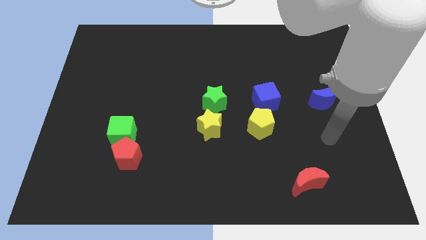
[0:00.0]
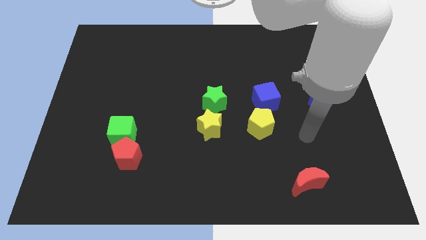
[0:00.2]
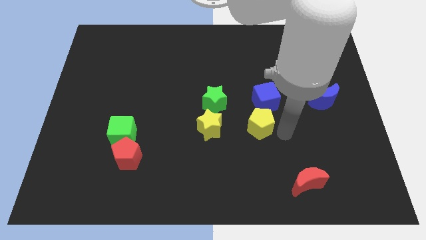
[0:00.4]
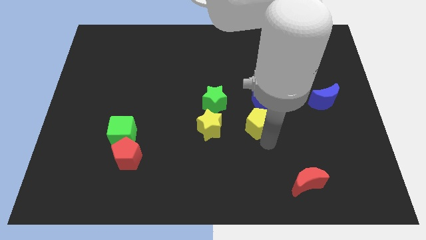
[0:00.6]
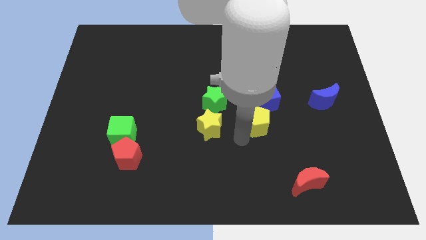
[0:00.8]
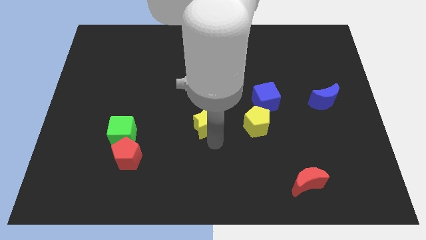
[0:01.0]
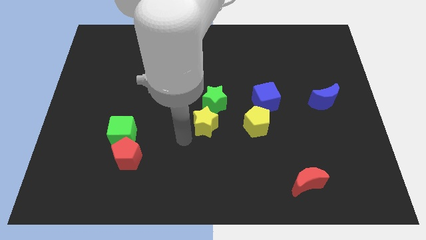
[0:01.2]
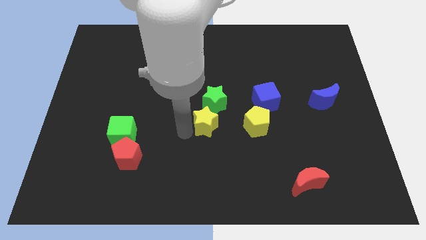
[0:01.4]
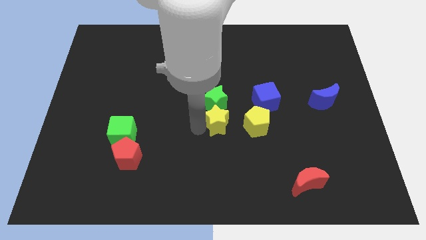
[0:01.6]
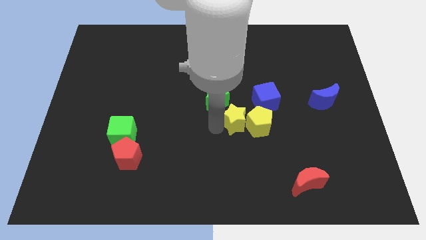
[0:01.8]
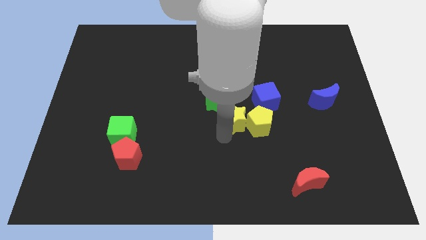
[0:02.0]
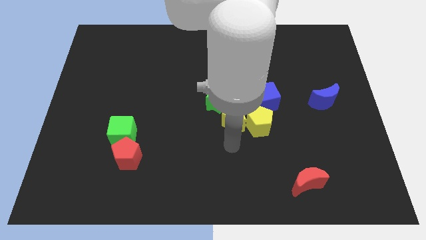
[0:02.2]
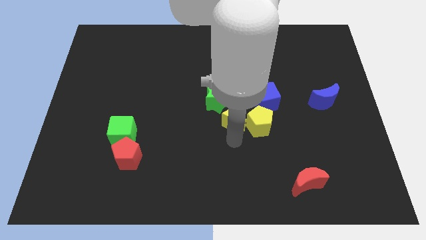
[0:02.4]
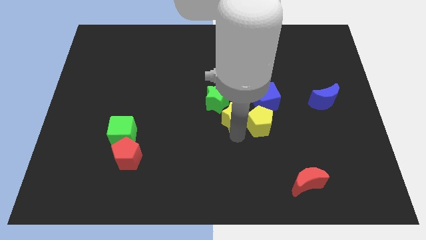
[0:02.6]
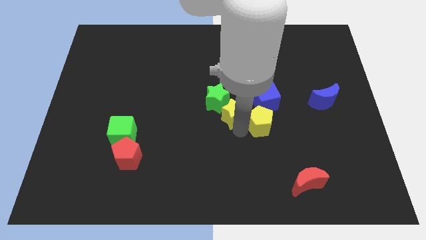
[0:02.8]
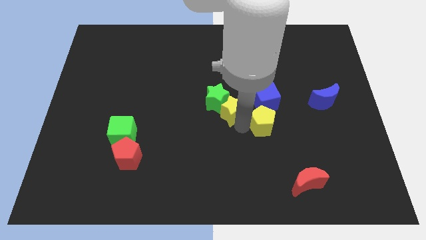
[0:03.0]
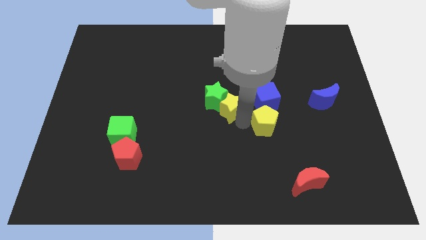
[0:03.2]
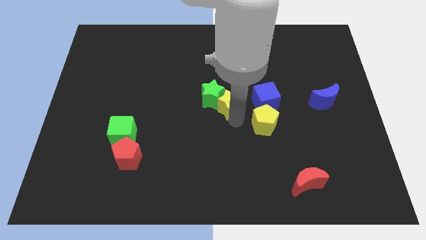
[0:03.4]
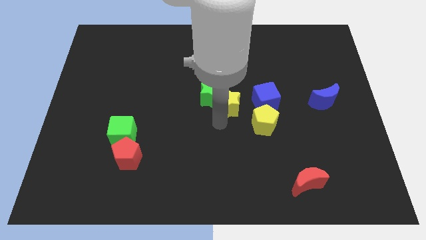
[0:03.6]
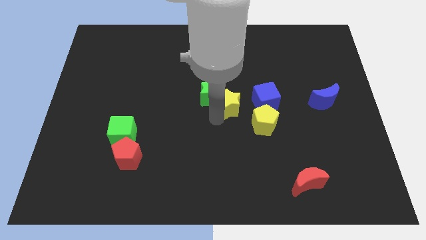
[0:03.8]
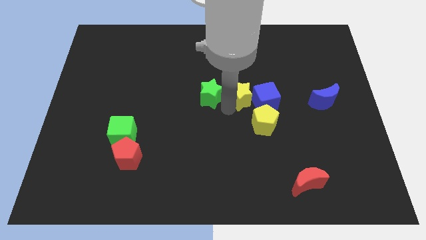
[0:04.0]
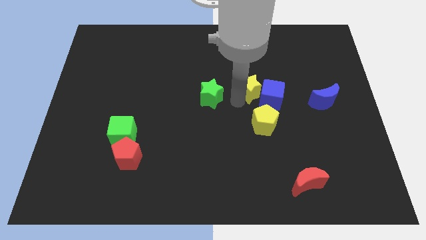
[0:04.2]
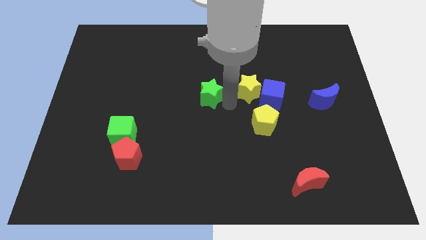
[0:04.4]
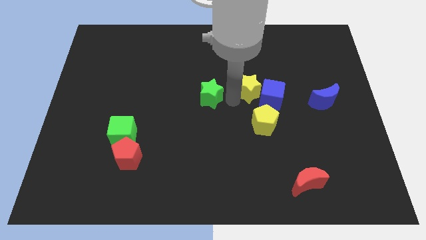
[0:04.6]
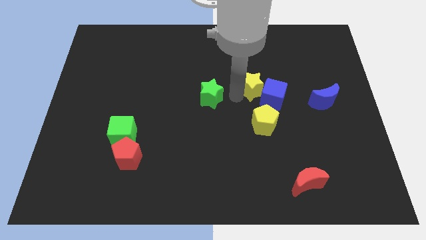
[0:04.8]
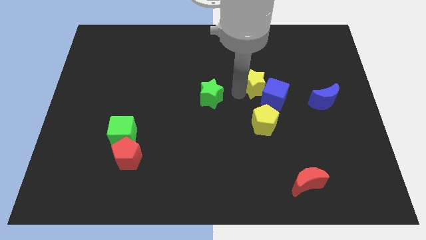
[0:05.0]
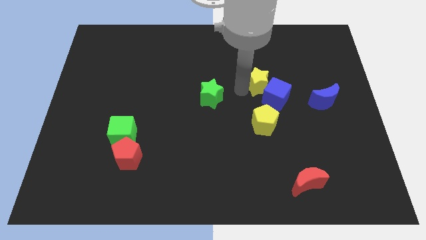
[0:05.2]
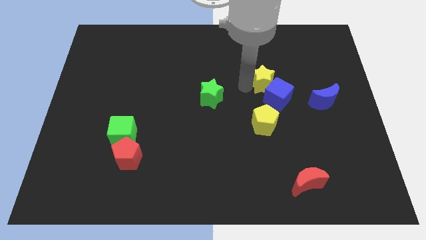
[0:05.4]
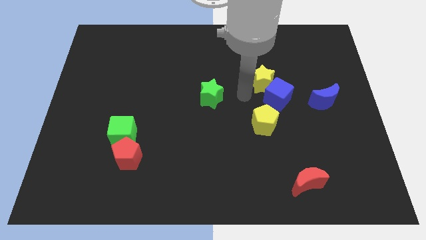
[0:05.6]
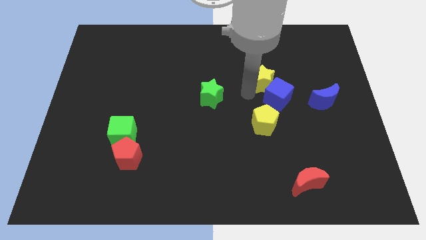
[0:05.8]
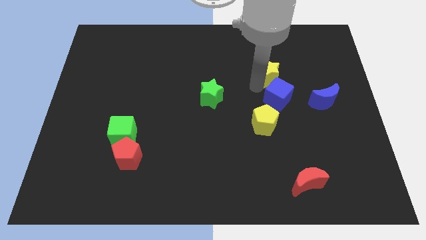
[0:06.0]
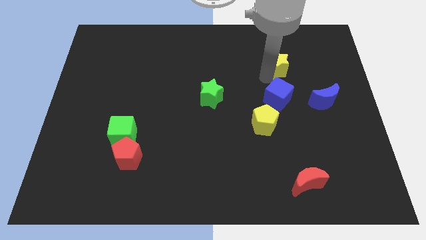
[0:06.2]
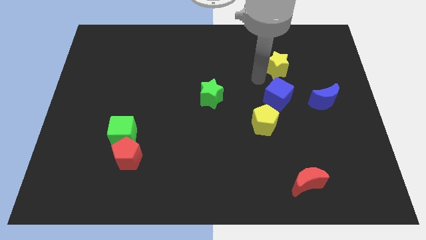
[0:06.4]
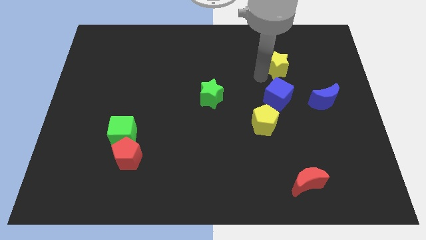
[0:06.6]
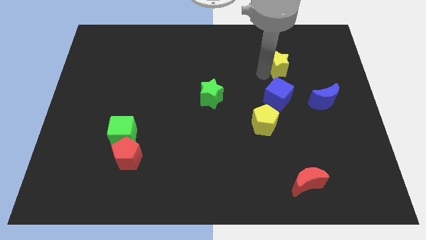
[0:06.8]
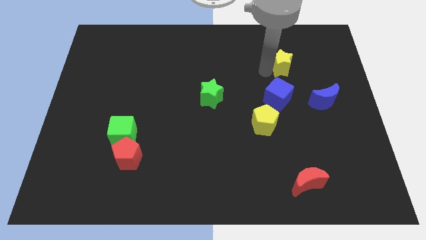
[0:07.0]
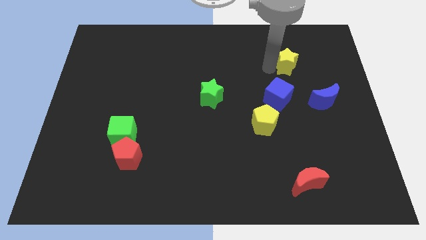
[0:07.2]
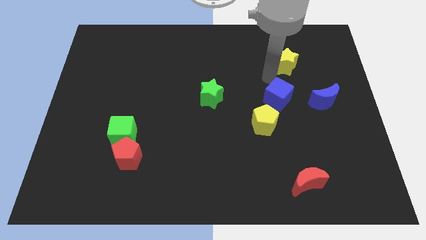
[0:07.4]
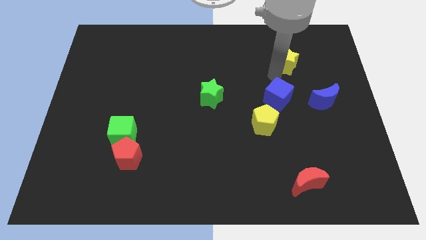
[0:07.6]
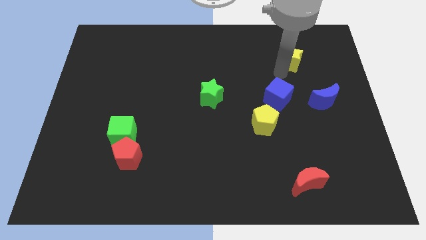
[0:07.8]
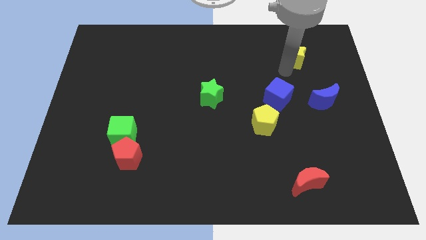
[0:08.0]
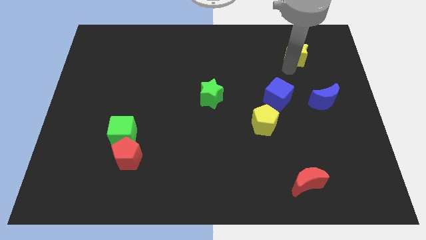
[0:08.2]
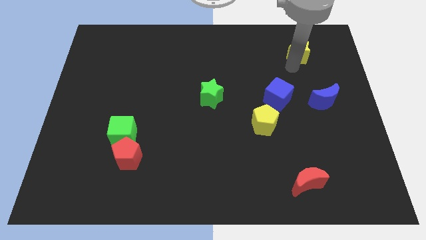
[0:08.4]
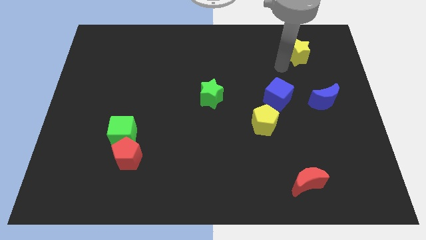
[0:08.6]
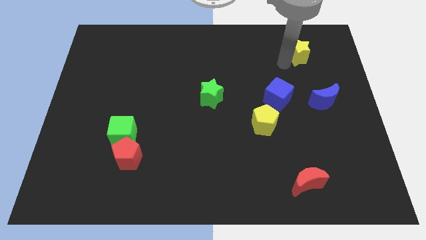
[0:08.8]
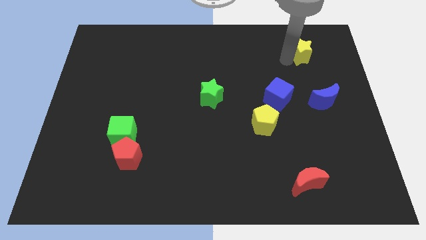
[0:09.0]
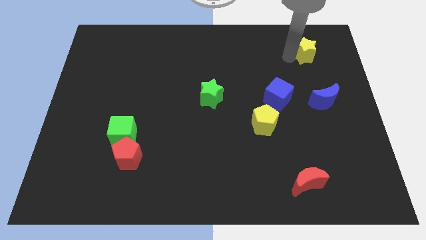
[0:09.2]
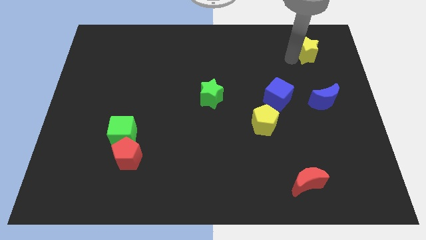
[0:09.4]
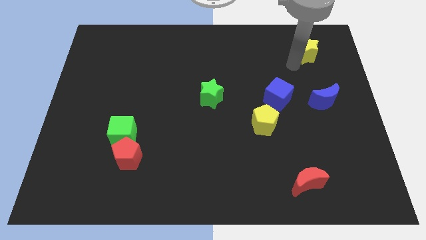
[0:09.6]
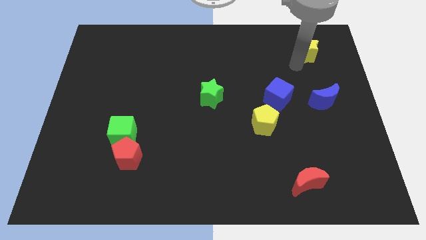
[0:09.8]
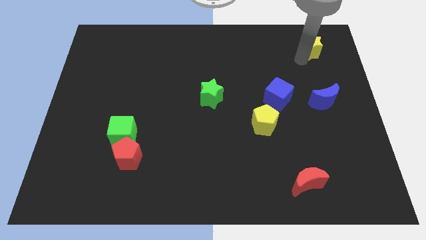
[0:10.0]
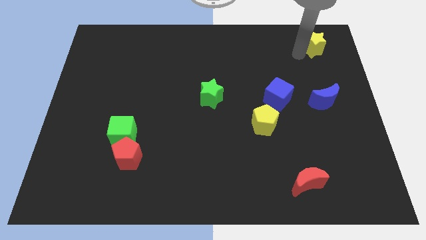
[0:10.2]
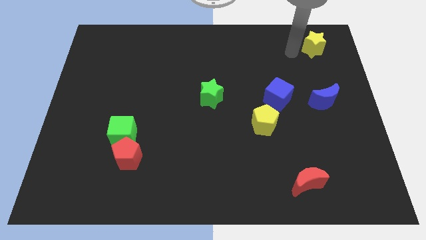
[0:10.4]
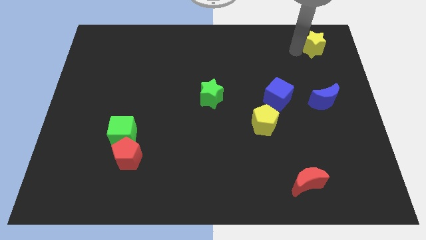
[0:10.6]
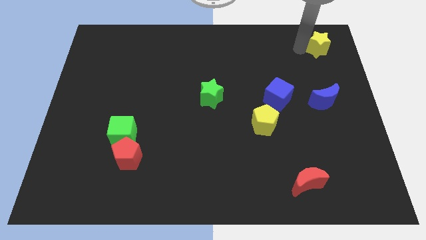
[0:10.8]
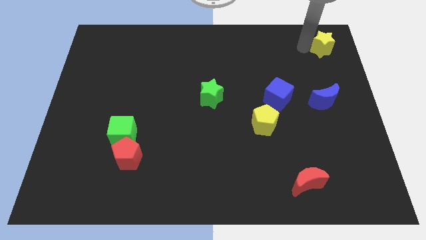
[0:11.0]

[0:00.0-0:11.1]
slide the yellow star to the top right
